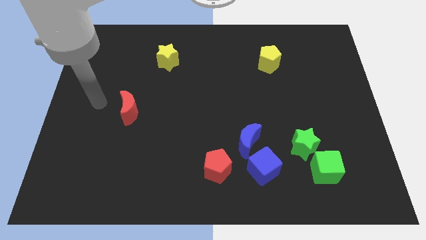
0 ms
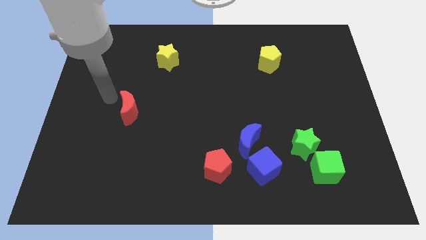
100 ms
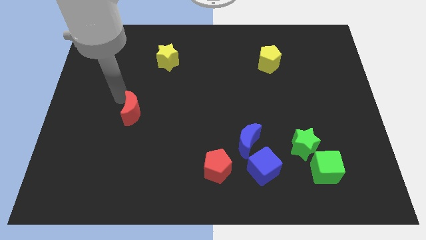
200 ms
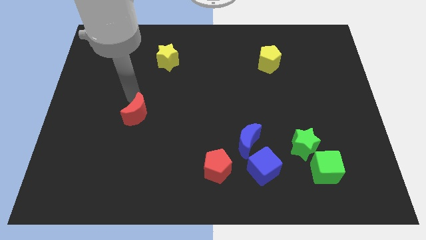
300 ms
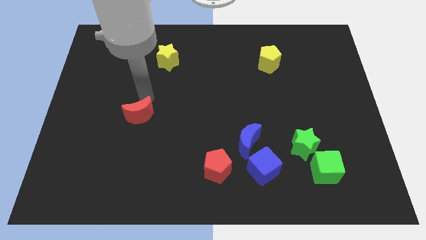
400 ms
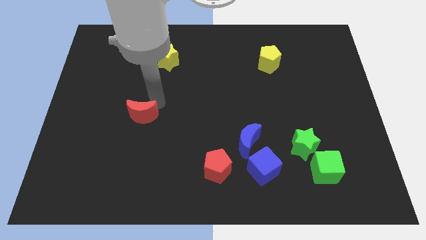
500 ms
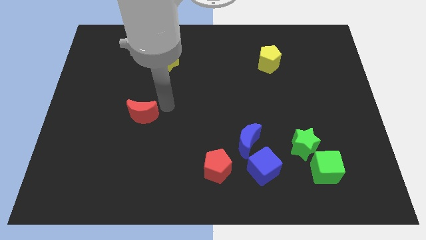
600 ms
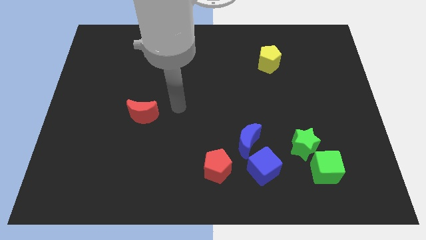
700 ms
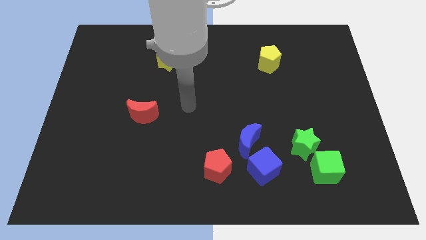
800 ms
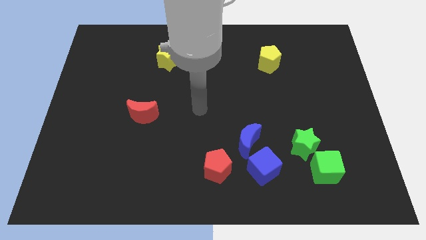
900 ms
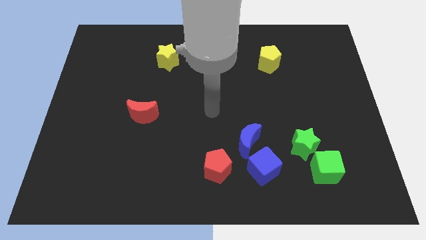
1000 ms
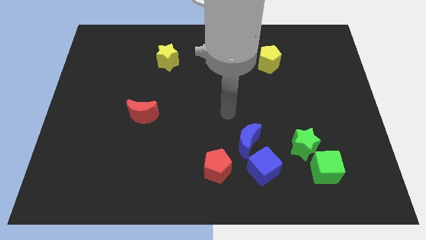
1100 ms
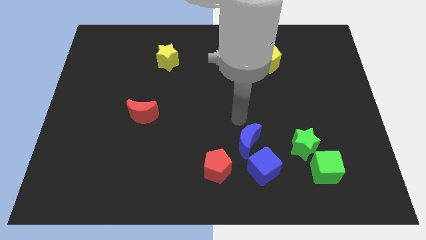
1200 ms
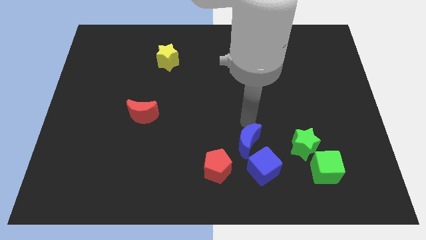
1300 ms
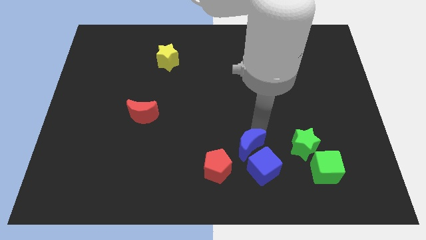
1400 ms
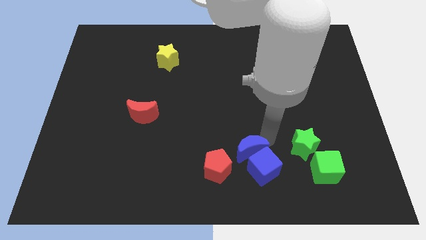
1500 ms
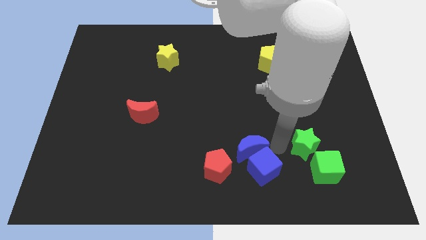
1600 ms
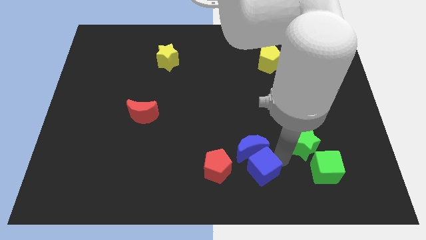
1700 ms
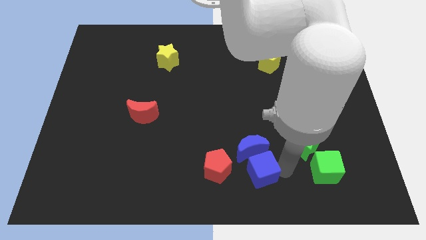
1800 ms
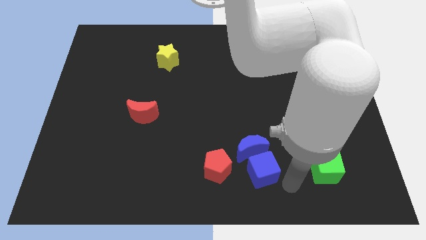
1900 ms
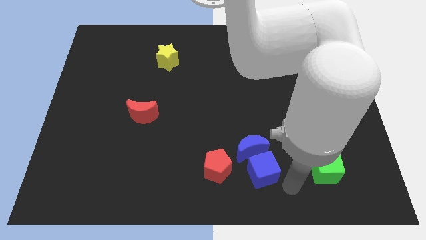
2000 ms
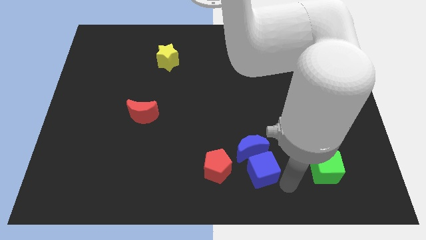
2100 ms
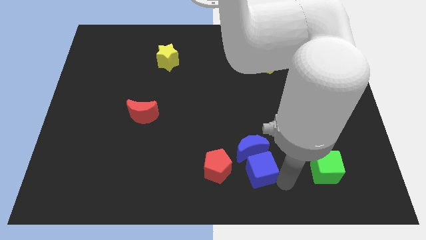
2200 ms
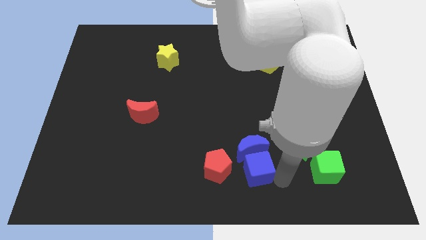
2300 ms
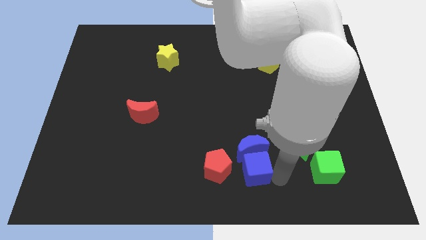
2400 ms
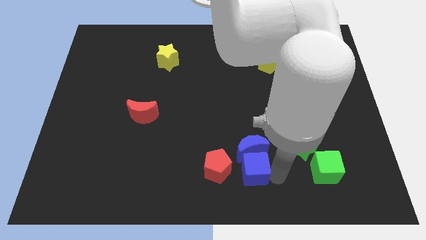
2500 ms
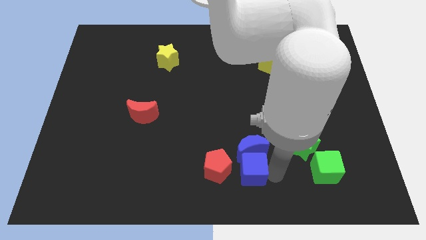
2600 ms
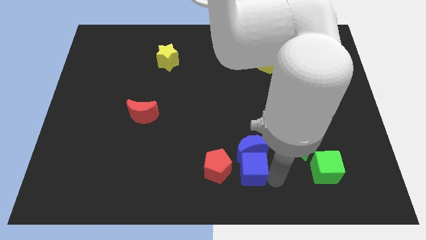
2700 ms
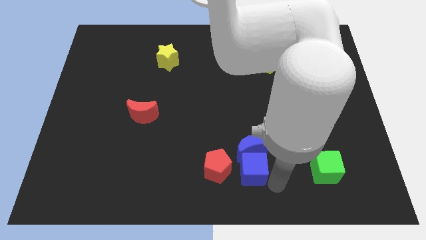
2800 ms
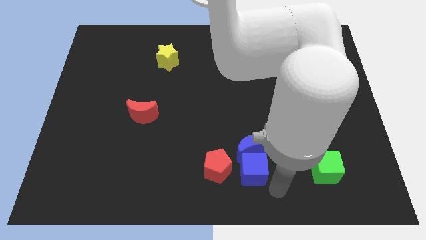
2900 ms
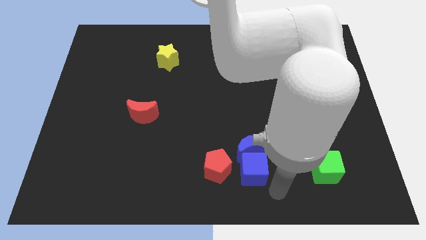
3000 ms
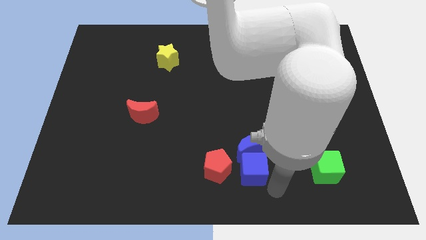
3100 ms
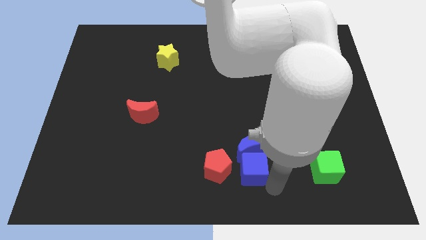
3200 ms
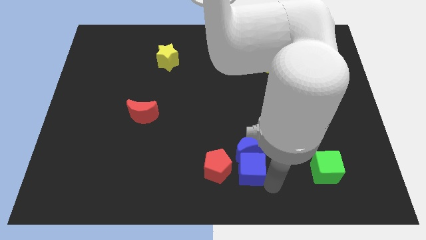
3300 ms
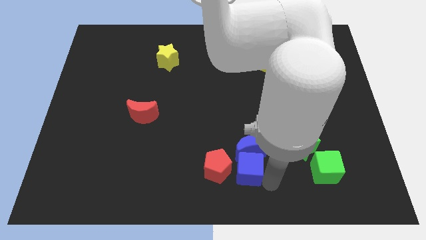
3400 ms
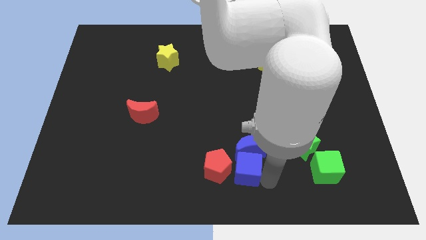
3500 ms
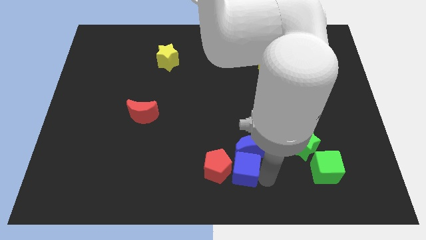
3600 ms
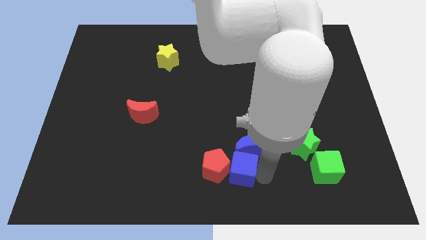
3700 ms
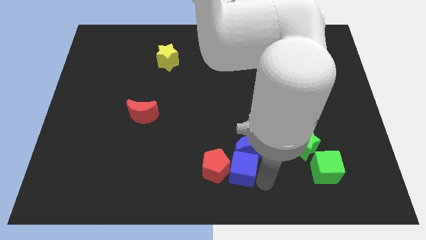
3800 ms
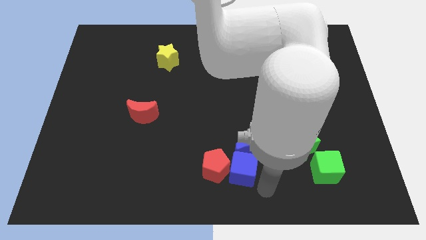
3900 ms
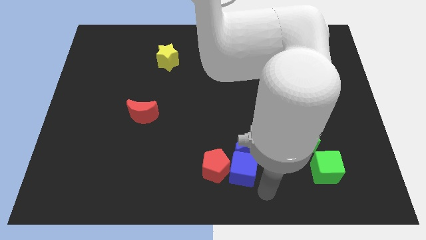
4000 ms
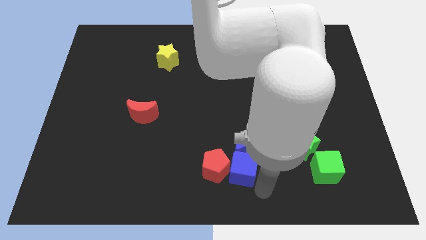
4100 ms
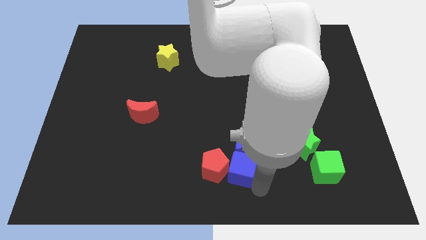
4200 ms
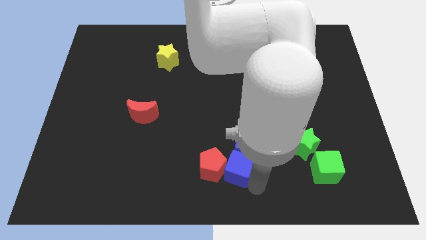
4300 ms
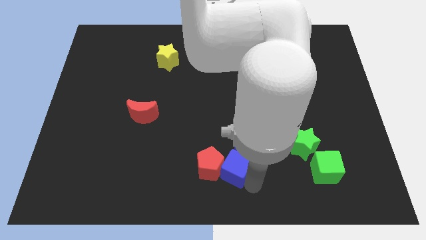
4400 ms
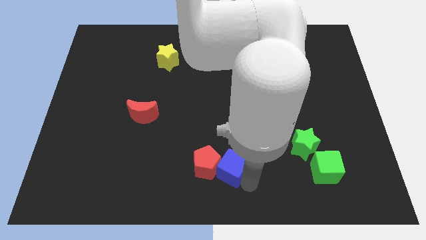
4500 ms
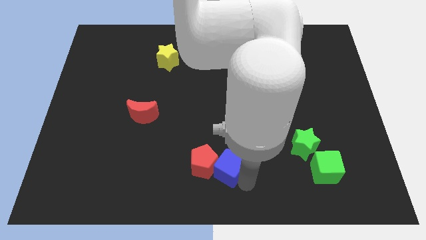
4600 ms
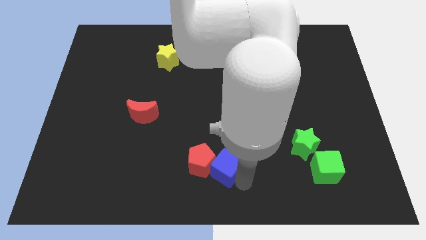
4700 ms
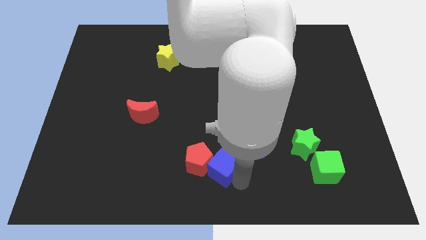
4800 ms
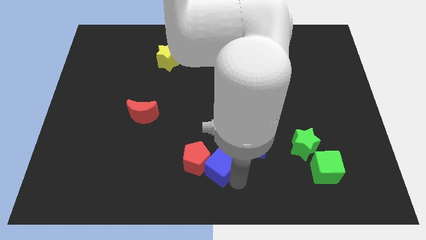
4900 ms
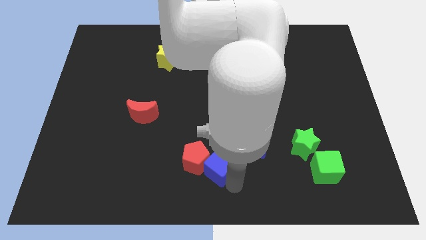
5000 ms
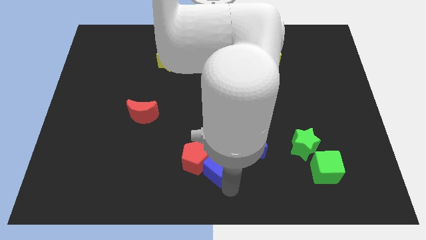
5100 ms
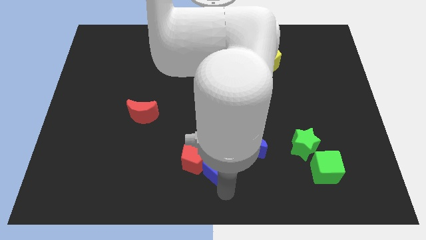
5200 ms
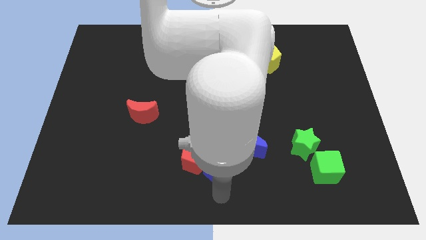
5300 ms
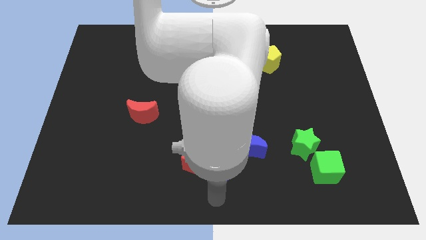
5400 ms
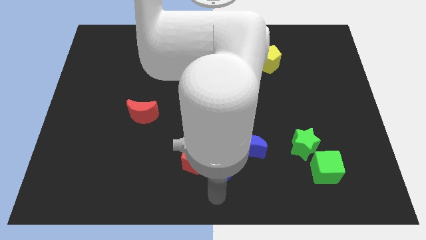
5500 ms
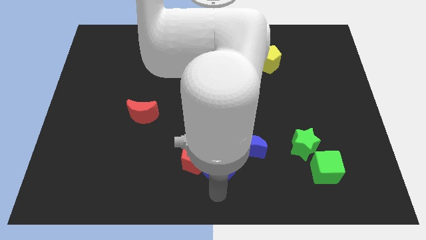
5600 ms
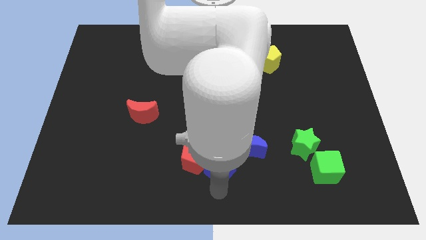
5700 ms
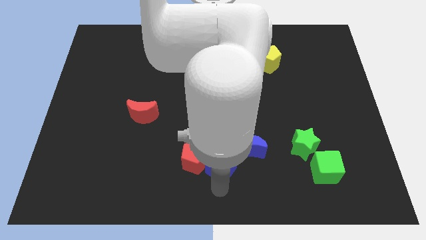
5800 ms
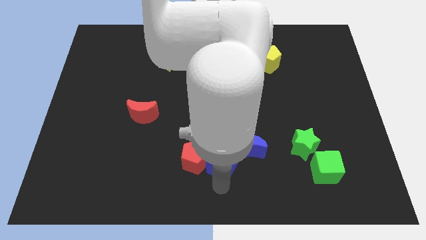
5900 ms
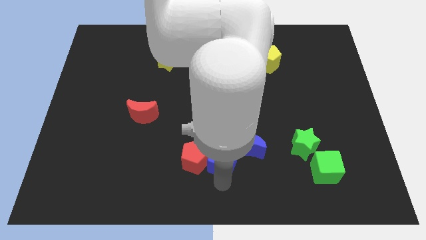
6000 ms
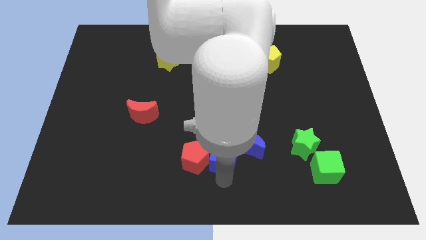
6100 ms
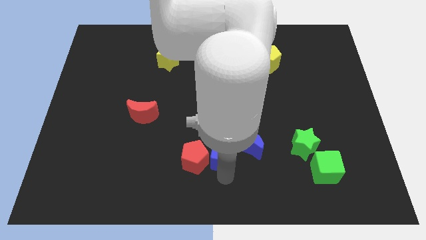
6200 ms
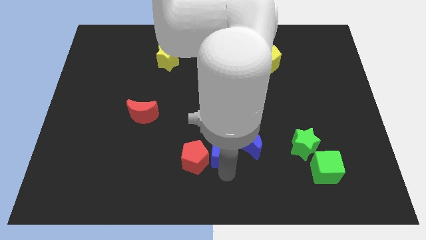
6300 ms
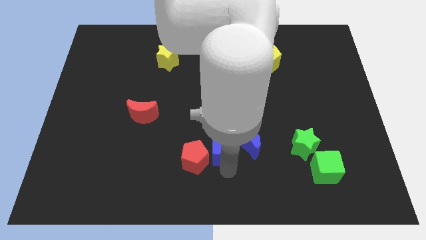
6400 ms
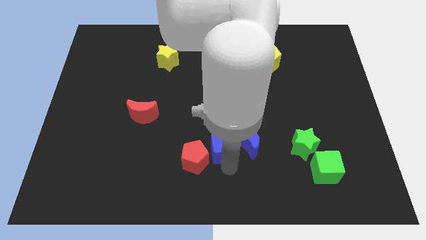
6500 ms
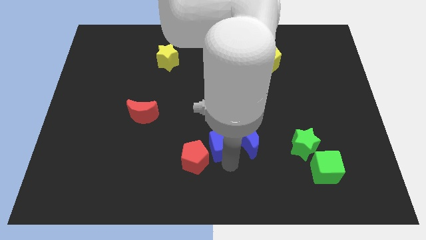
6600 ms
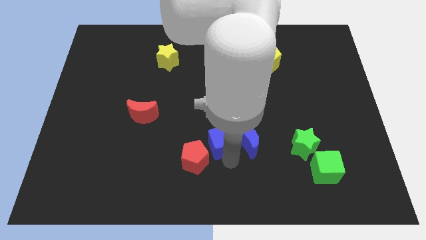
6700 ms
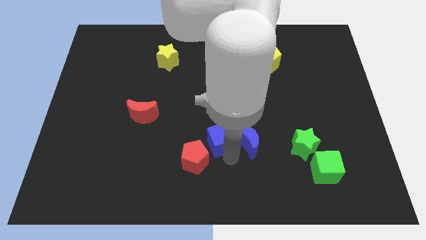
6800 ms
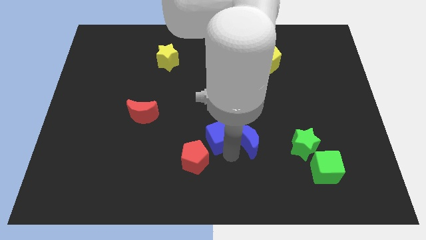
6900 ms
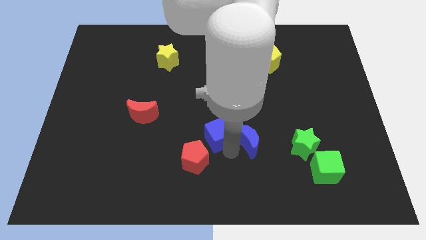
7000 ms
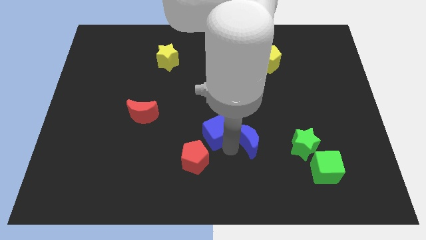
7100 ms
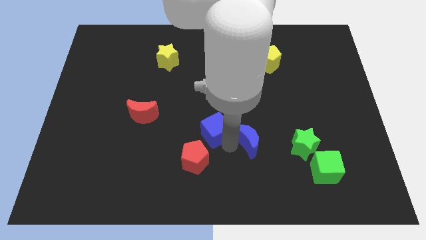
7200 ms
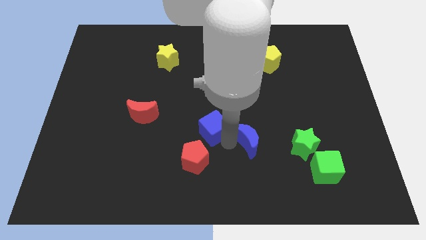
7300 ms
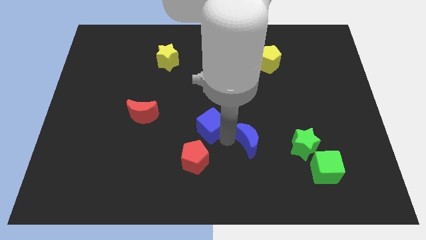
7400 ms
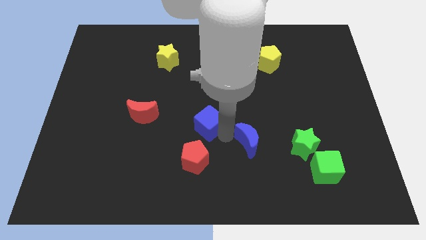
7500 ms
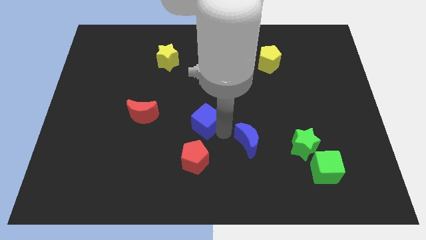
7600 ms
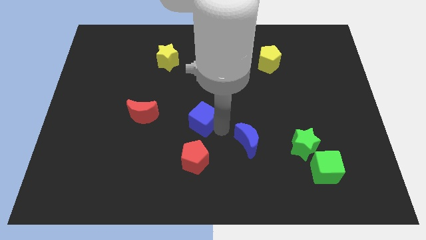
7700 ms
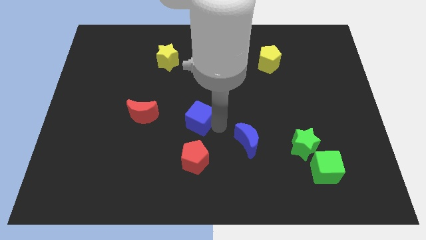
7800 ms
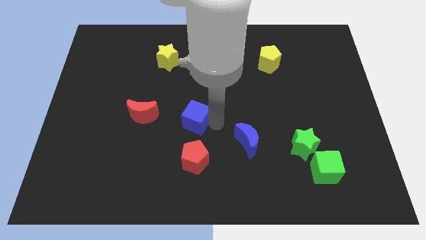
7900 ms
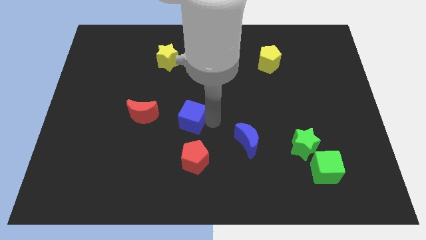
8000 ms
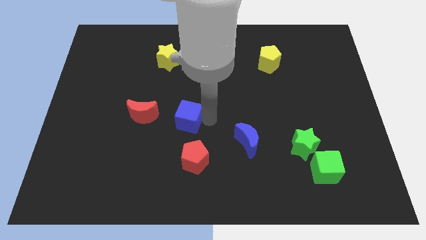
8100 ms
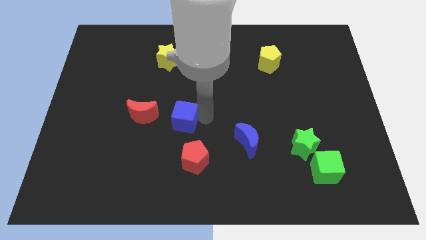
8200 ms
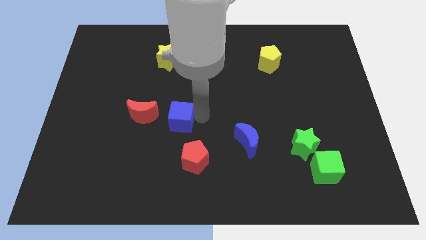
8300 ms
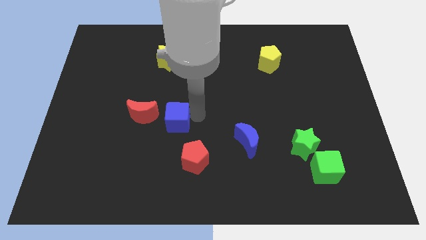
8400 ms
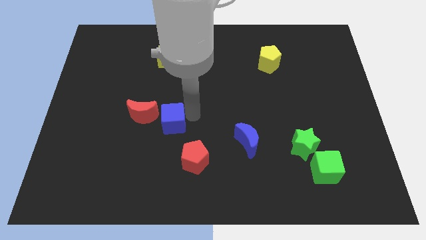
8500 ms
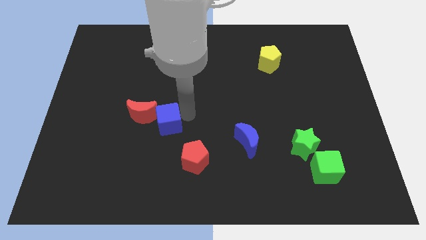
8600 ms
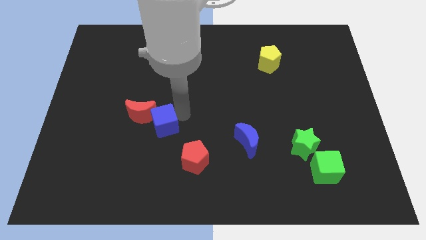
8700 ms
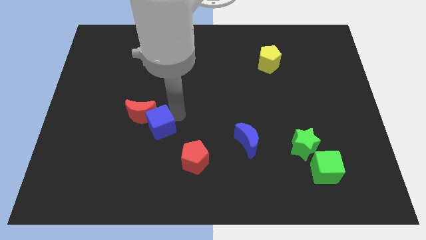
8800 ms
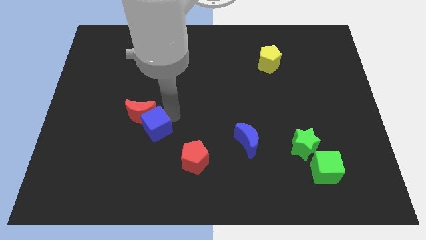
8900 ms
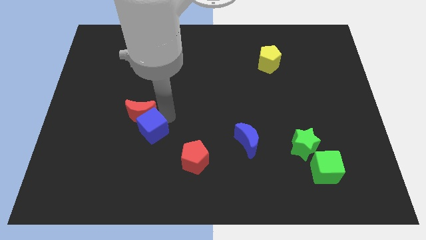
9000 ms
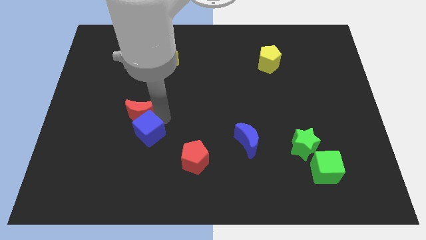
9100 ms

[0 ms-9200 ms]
push the blue cube to the left
